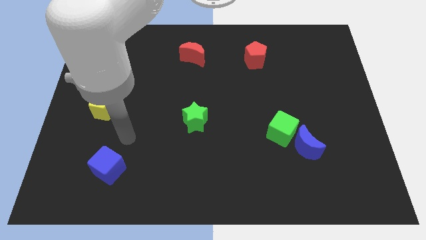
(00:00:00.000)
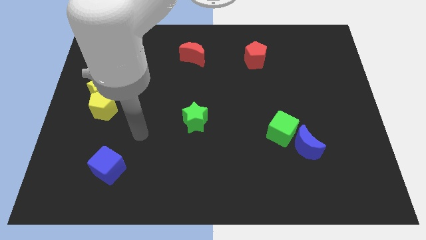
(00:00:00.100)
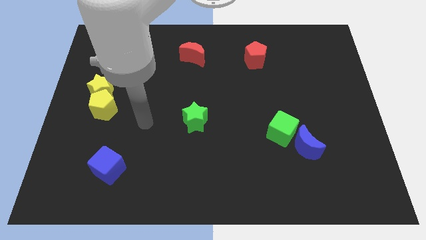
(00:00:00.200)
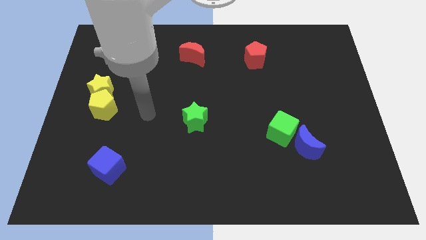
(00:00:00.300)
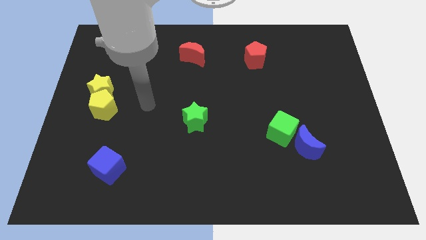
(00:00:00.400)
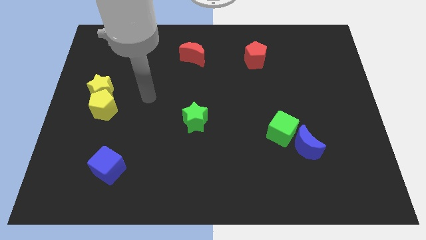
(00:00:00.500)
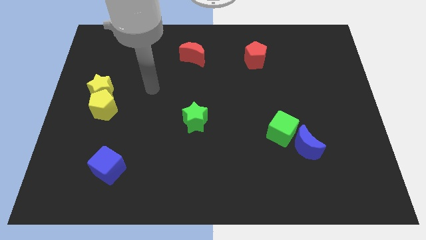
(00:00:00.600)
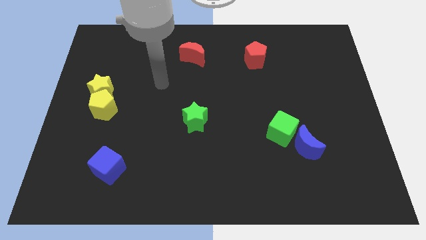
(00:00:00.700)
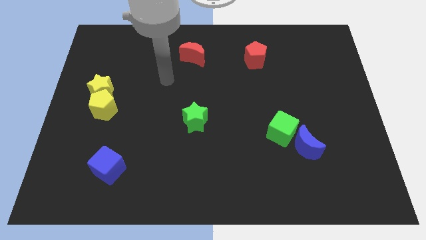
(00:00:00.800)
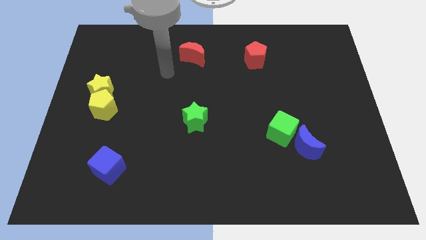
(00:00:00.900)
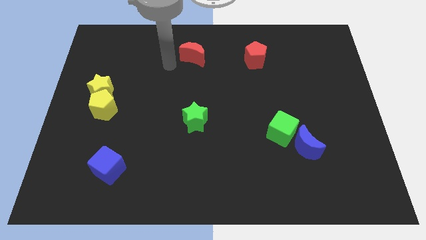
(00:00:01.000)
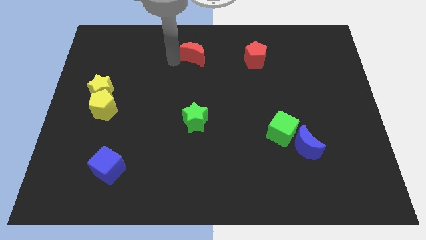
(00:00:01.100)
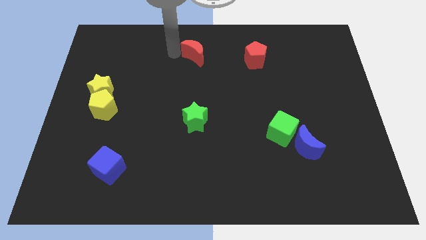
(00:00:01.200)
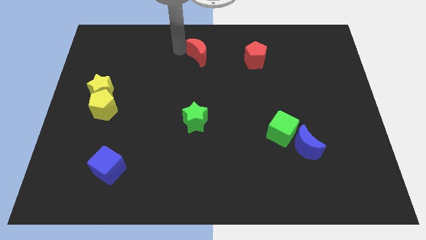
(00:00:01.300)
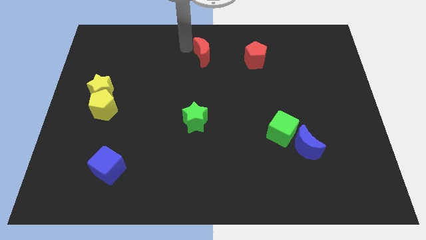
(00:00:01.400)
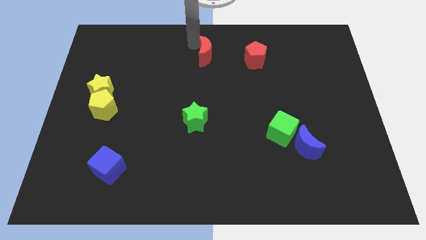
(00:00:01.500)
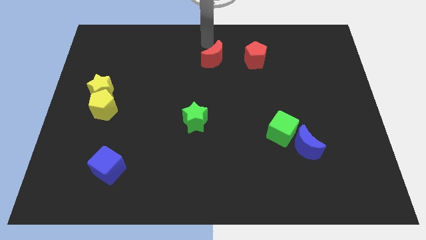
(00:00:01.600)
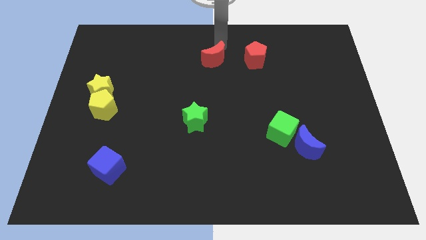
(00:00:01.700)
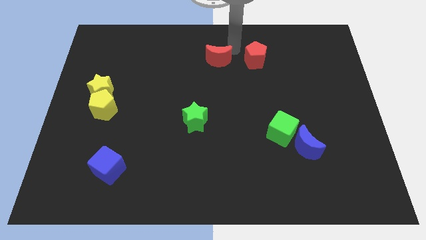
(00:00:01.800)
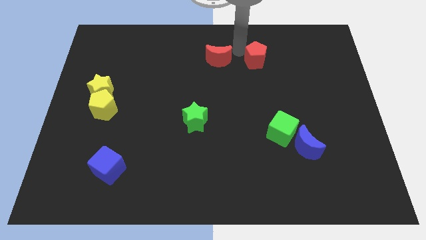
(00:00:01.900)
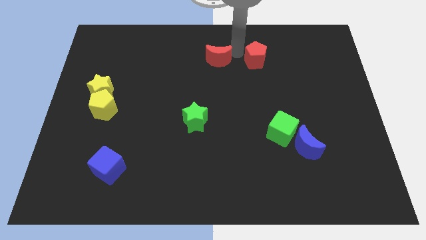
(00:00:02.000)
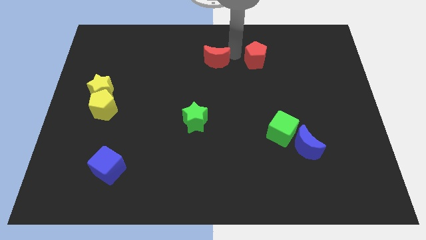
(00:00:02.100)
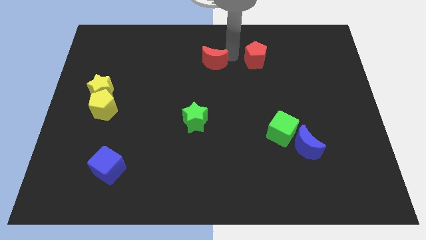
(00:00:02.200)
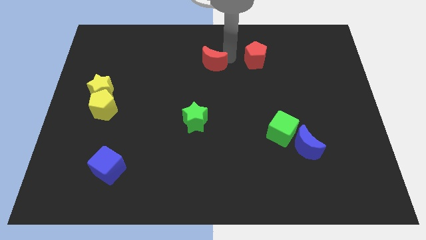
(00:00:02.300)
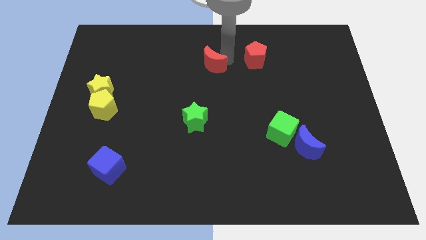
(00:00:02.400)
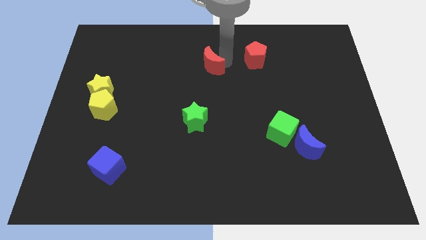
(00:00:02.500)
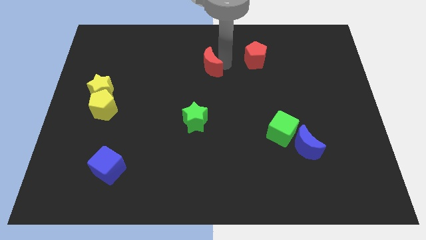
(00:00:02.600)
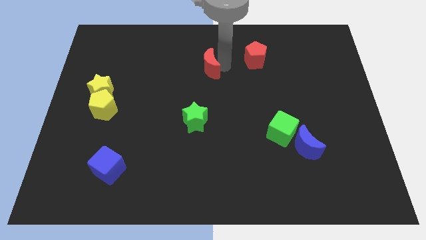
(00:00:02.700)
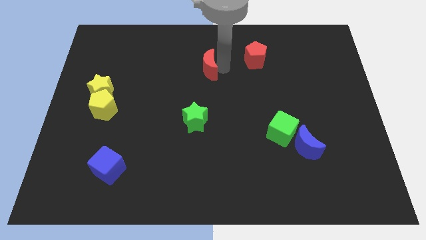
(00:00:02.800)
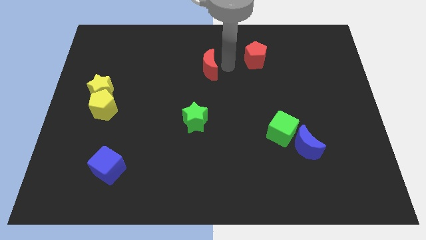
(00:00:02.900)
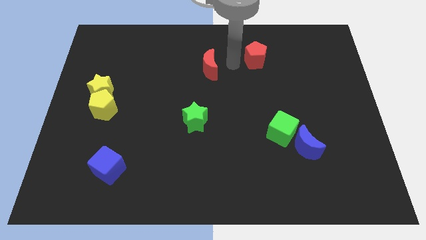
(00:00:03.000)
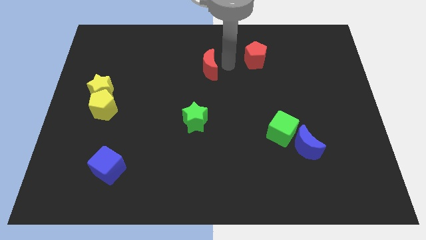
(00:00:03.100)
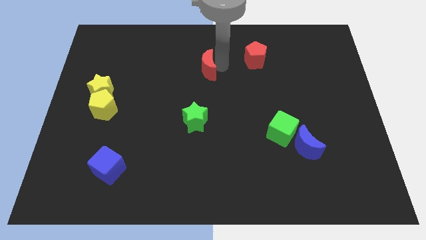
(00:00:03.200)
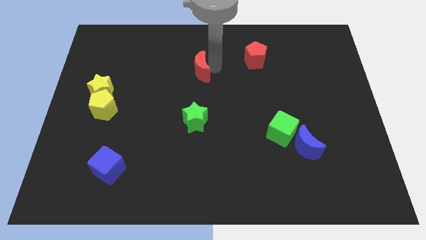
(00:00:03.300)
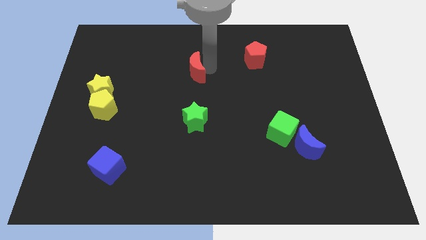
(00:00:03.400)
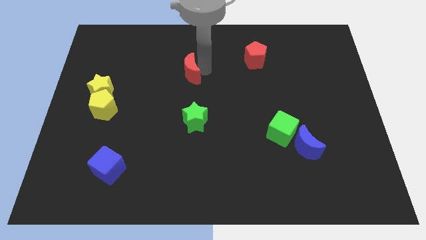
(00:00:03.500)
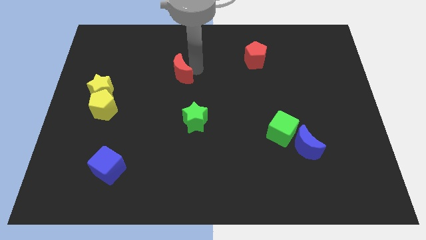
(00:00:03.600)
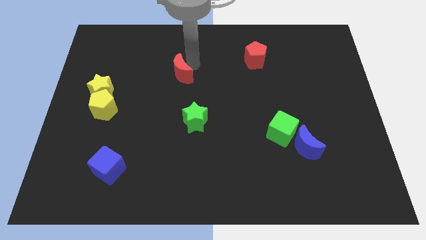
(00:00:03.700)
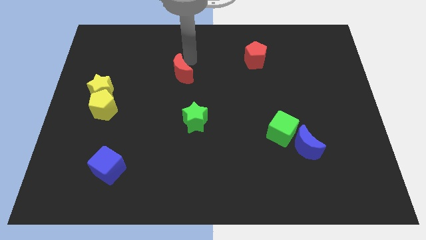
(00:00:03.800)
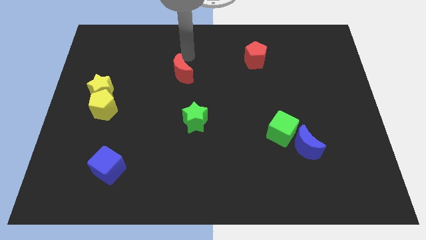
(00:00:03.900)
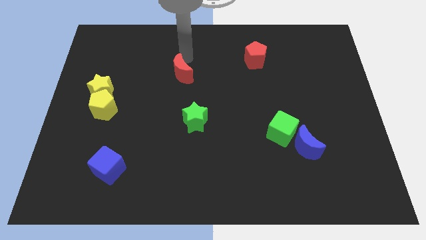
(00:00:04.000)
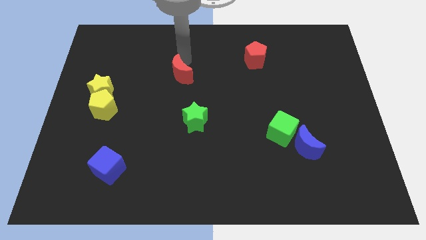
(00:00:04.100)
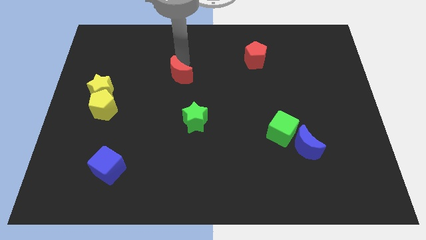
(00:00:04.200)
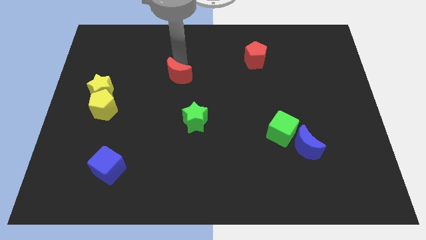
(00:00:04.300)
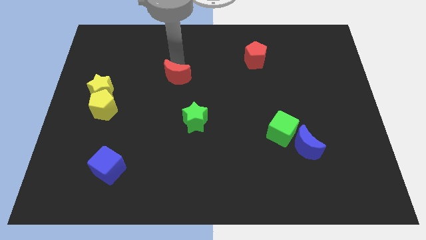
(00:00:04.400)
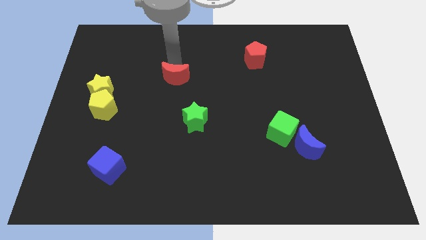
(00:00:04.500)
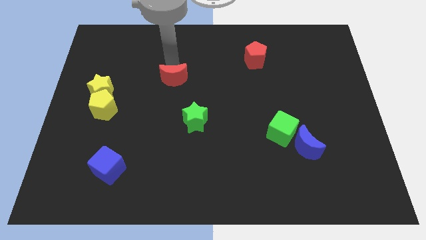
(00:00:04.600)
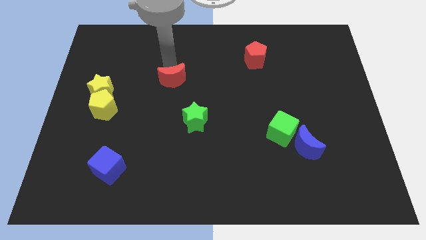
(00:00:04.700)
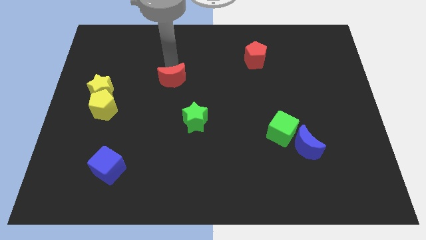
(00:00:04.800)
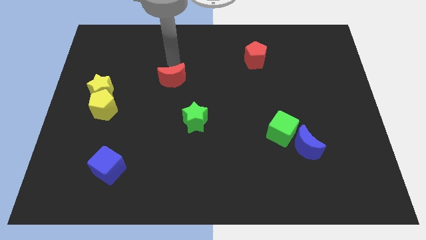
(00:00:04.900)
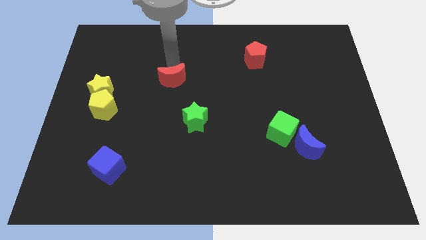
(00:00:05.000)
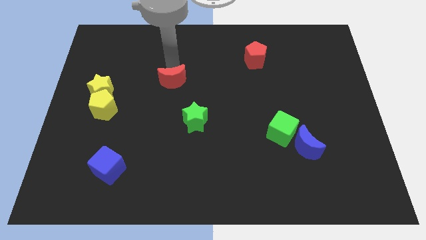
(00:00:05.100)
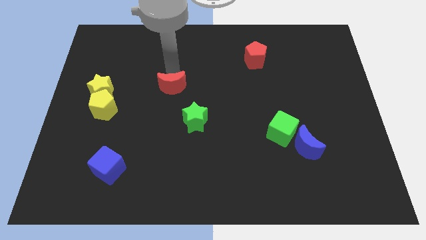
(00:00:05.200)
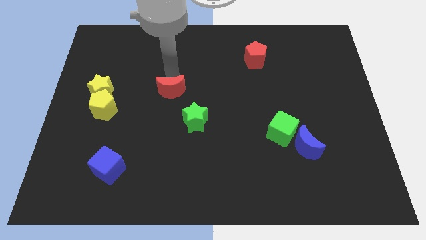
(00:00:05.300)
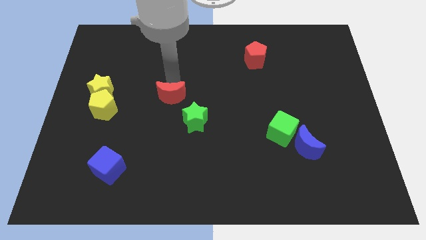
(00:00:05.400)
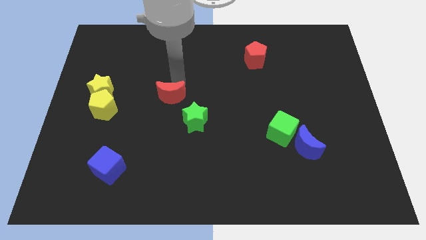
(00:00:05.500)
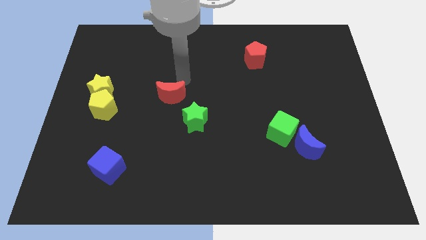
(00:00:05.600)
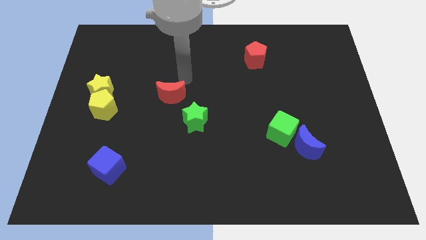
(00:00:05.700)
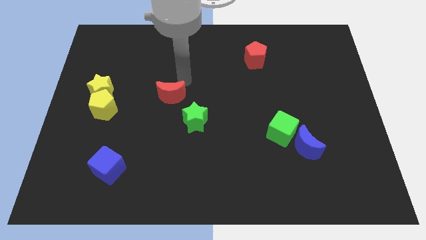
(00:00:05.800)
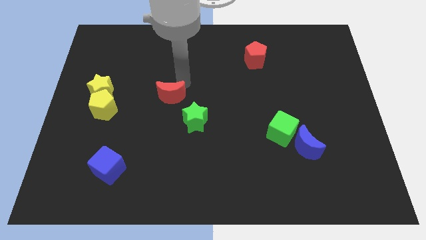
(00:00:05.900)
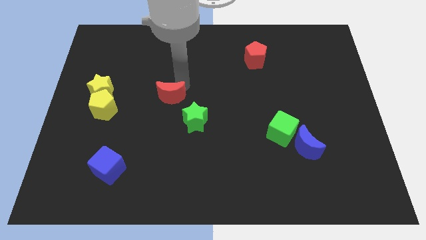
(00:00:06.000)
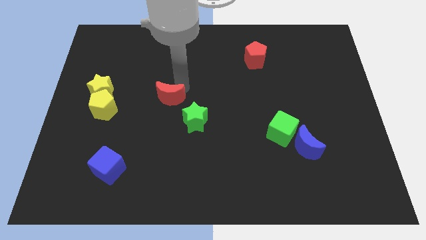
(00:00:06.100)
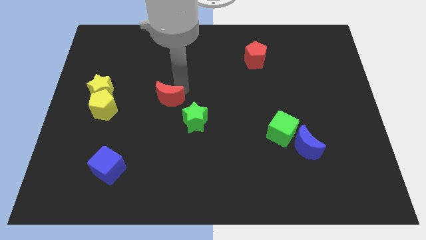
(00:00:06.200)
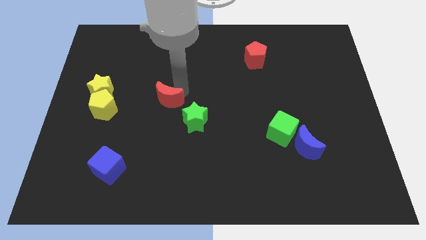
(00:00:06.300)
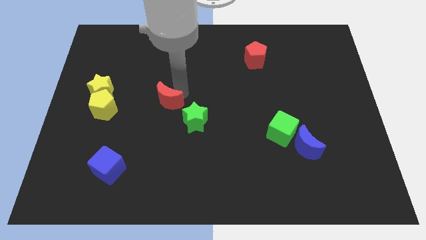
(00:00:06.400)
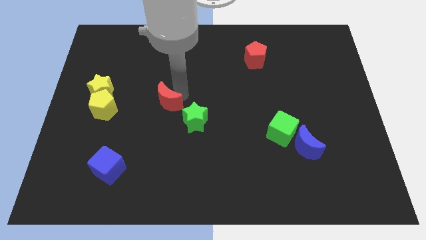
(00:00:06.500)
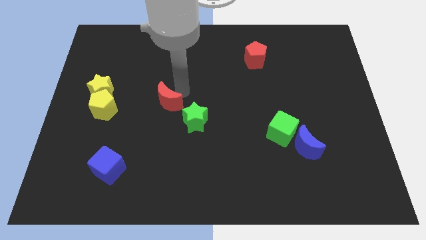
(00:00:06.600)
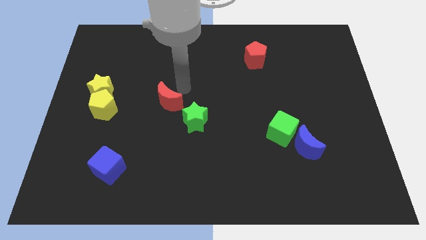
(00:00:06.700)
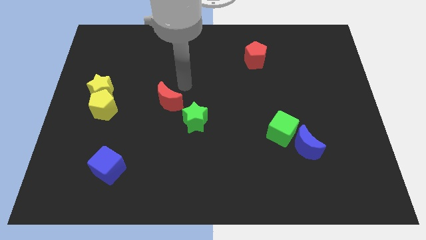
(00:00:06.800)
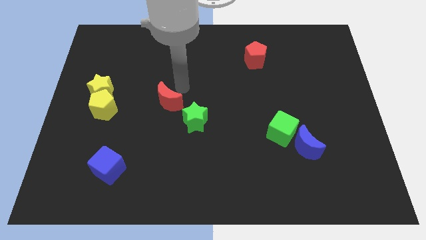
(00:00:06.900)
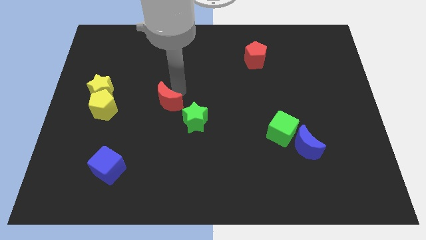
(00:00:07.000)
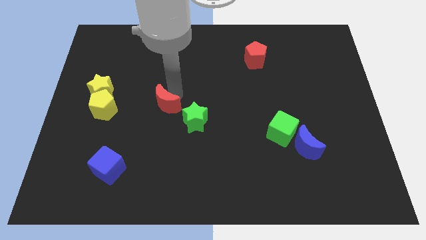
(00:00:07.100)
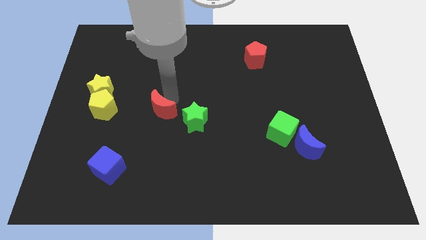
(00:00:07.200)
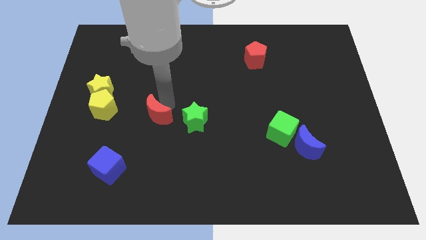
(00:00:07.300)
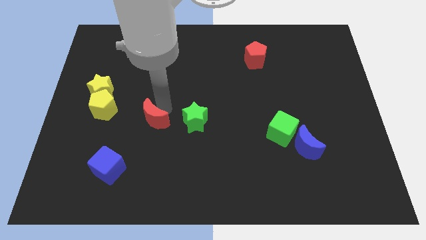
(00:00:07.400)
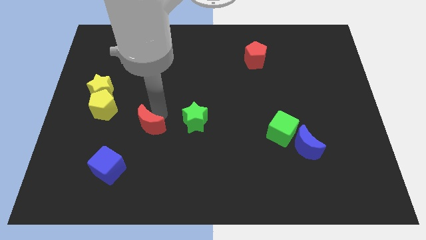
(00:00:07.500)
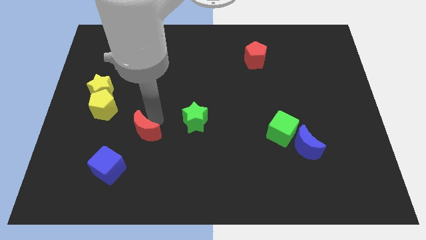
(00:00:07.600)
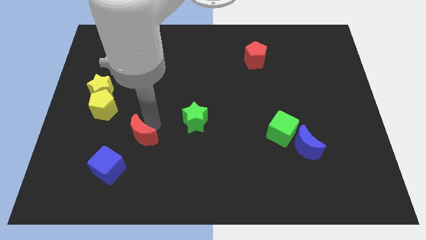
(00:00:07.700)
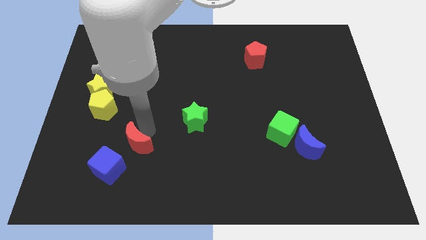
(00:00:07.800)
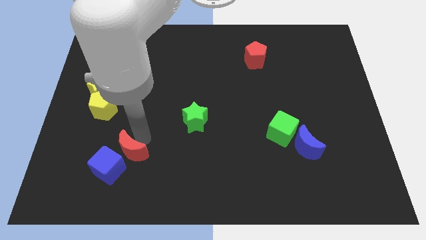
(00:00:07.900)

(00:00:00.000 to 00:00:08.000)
push the red moon to the blue cube

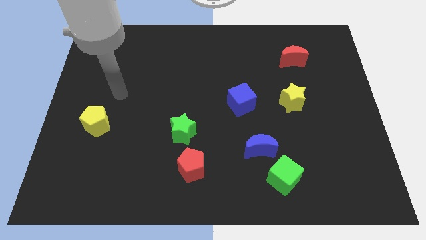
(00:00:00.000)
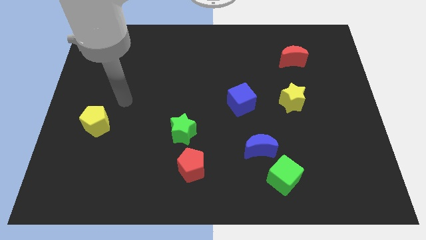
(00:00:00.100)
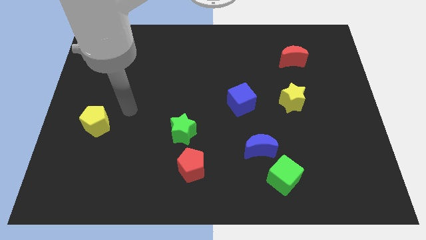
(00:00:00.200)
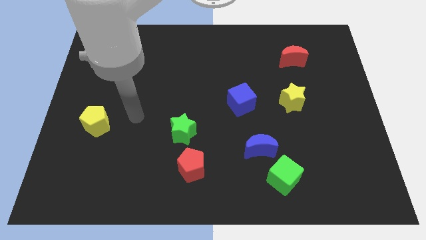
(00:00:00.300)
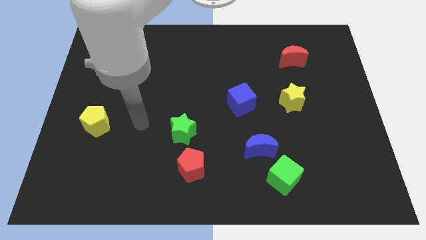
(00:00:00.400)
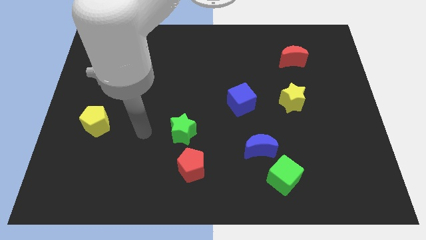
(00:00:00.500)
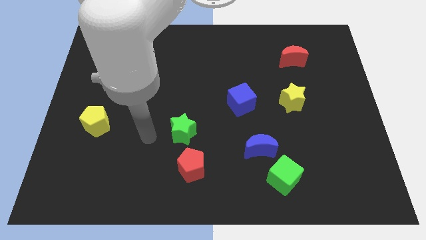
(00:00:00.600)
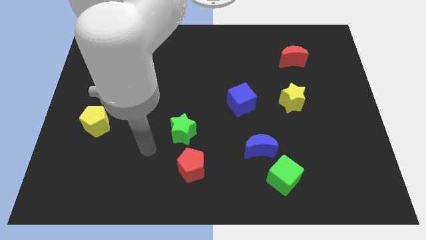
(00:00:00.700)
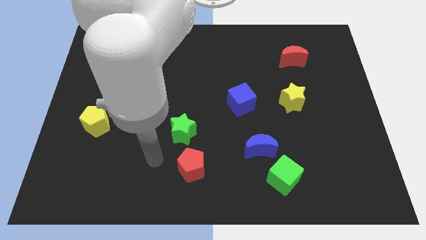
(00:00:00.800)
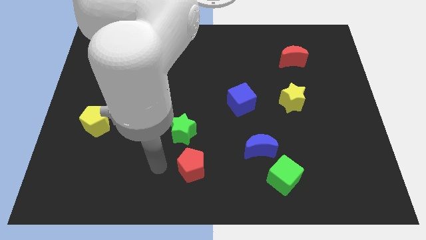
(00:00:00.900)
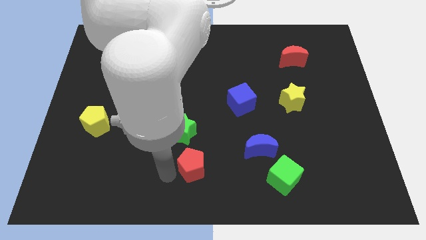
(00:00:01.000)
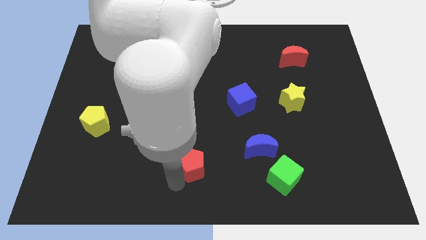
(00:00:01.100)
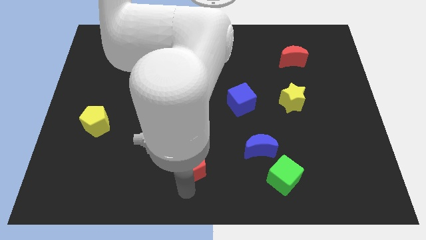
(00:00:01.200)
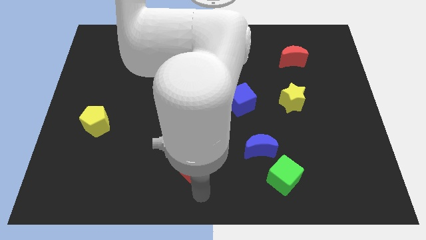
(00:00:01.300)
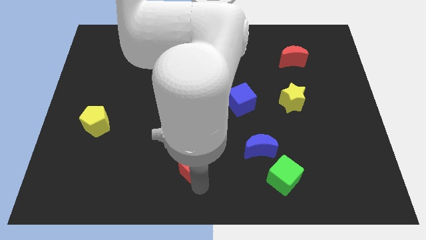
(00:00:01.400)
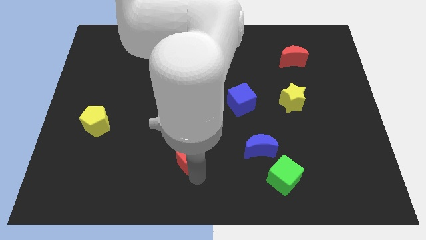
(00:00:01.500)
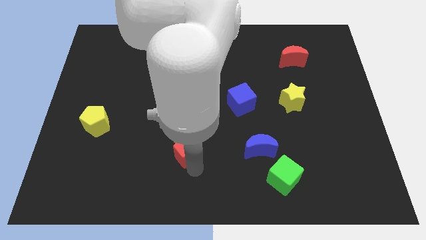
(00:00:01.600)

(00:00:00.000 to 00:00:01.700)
slide the red pentagon next to the green star
